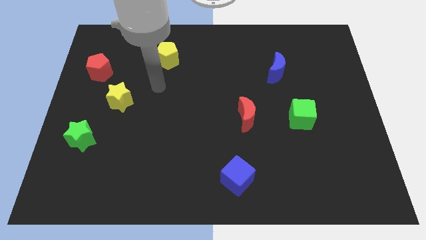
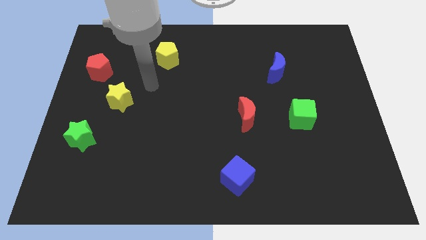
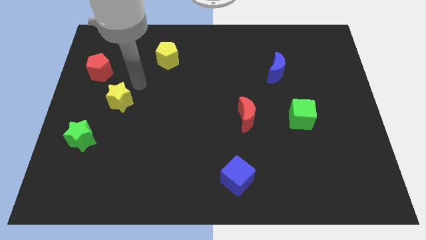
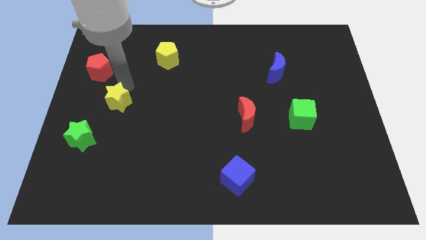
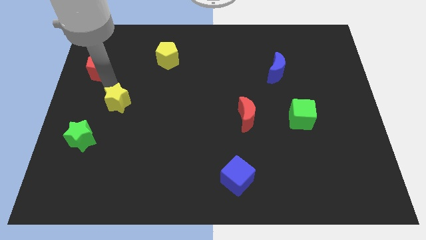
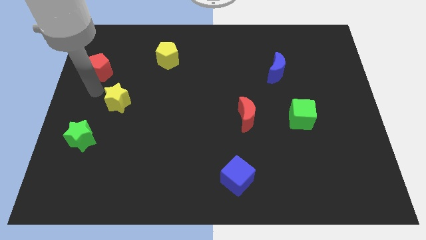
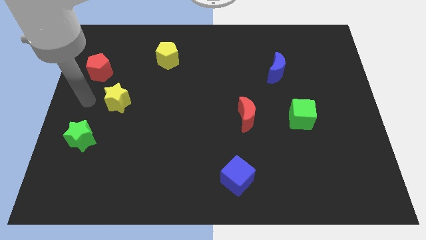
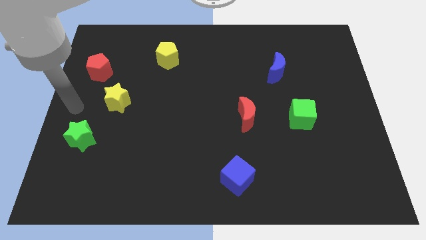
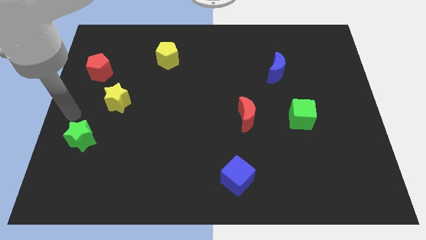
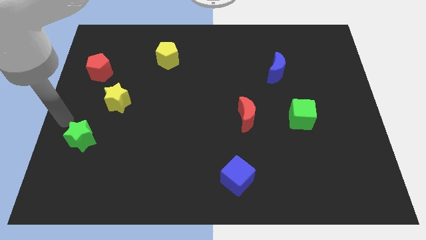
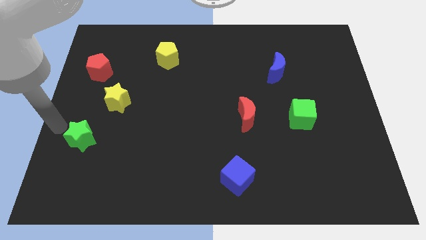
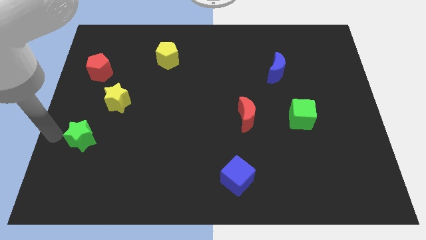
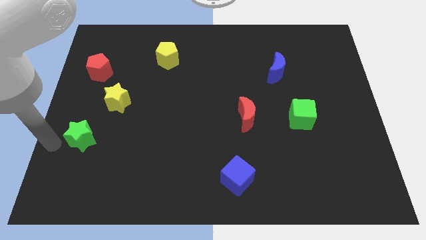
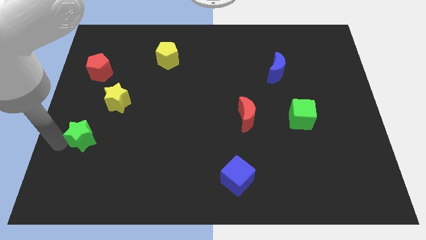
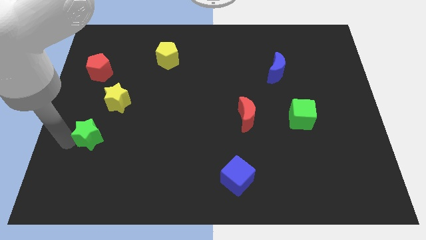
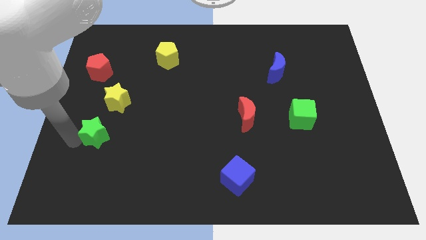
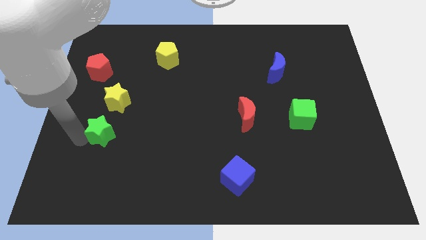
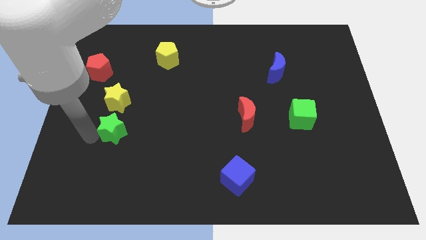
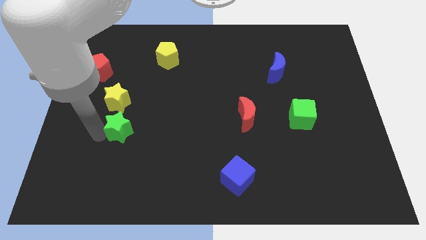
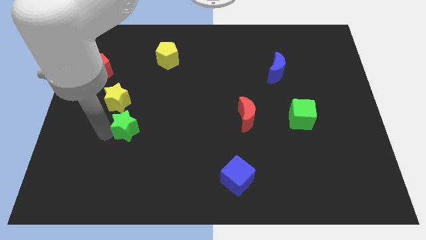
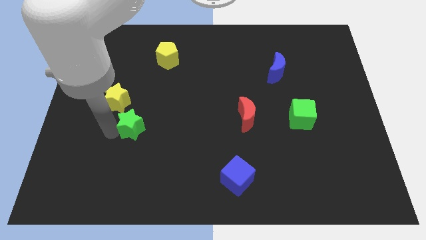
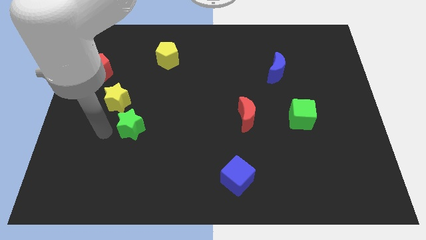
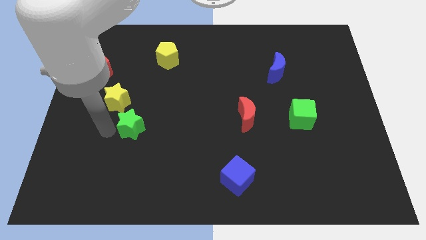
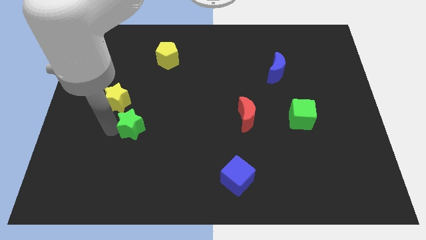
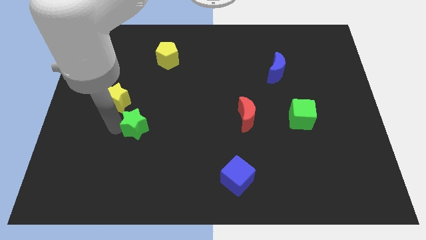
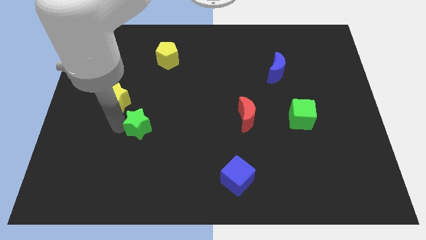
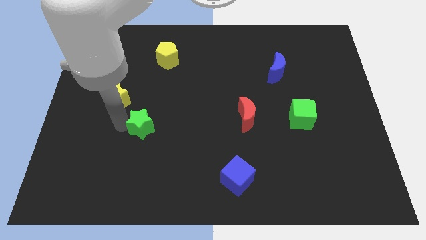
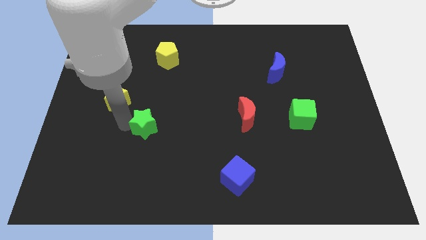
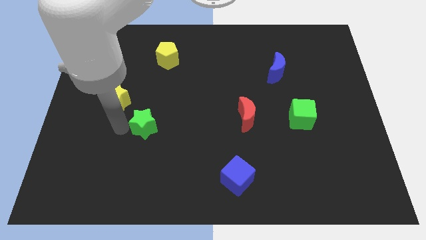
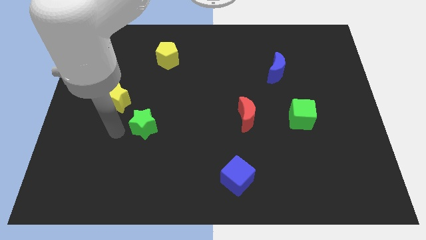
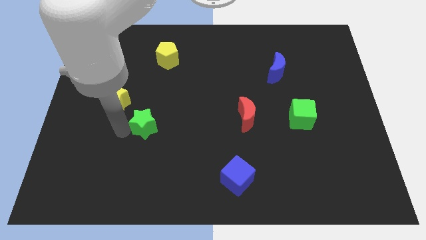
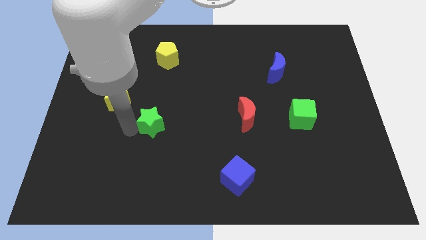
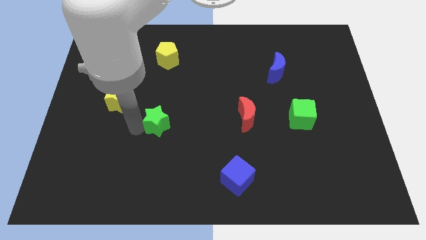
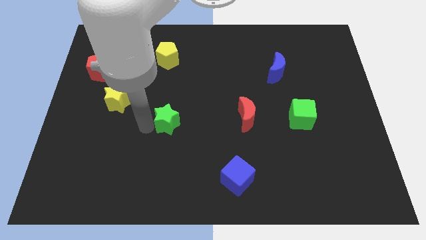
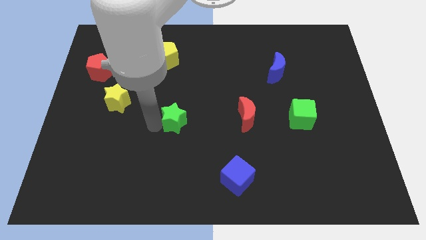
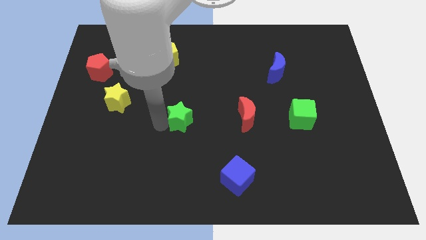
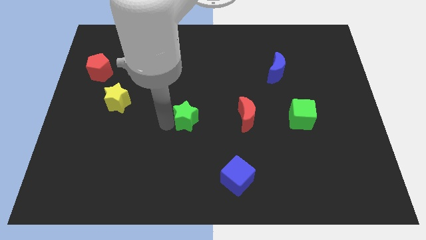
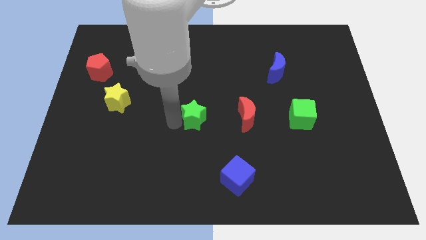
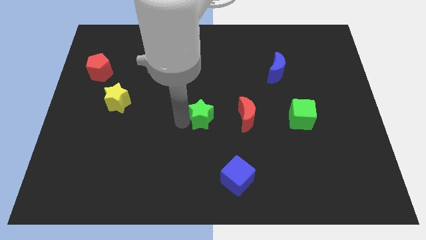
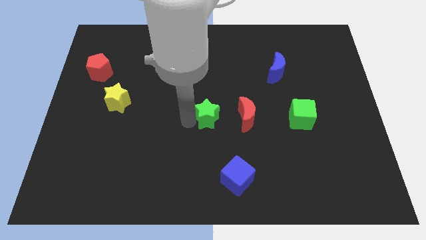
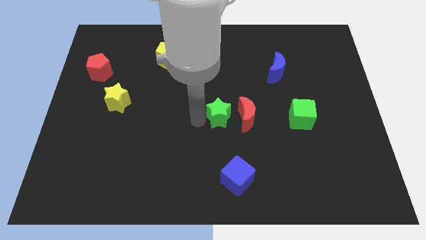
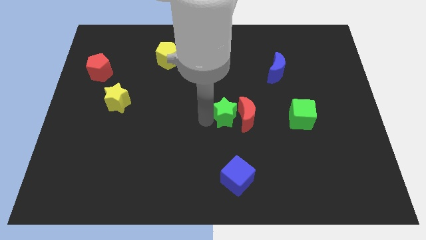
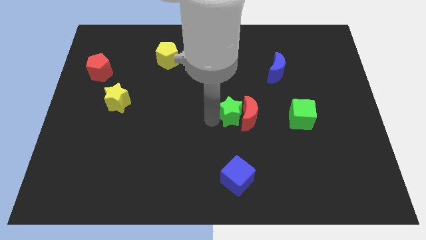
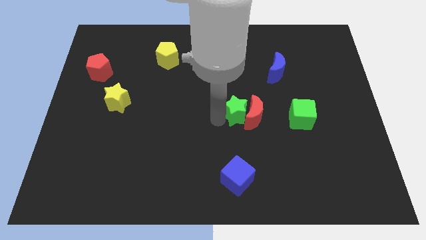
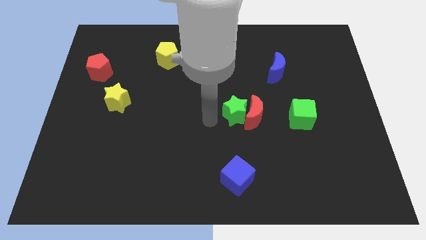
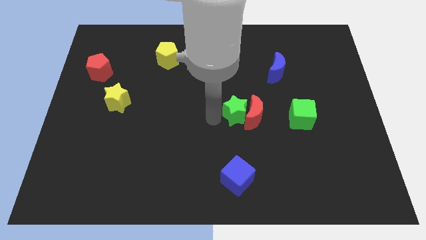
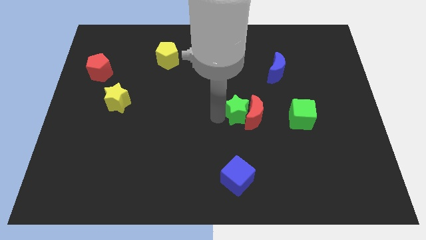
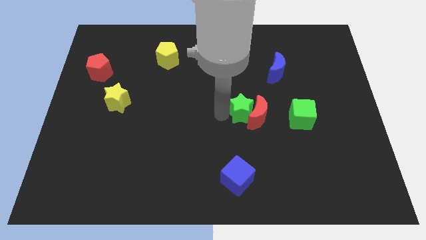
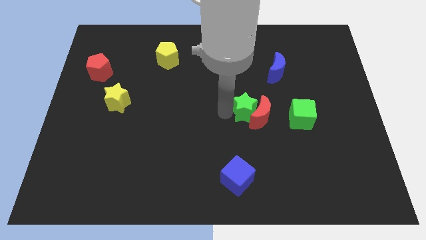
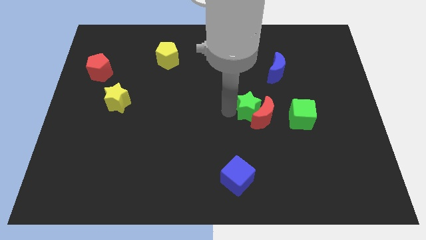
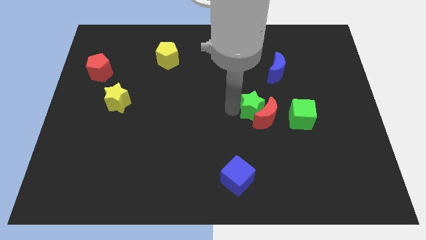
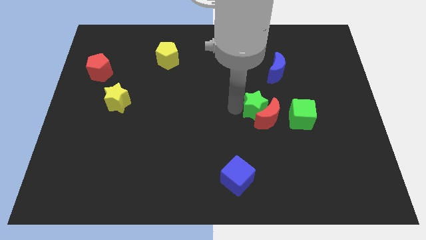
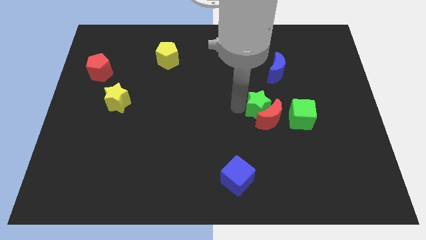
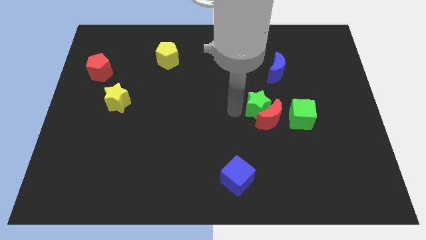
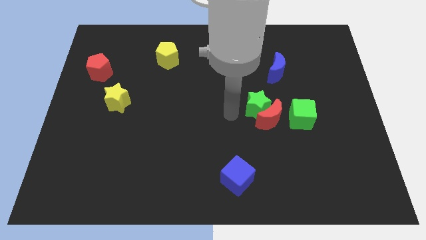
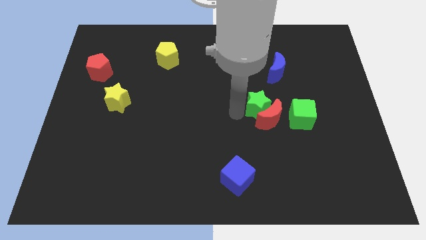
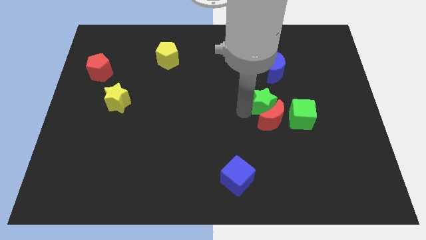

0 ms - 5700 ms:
put the green star to the bottom of the blue moon

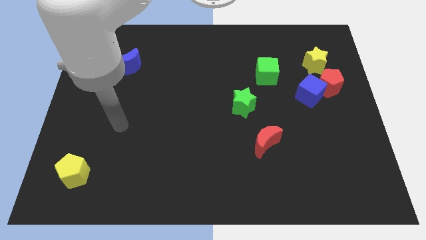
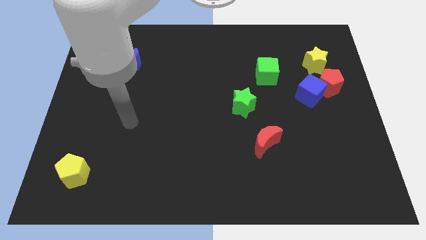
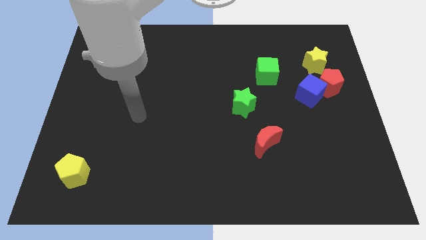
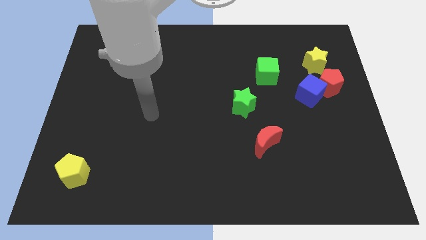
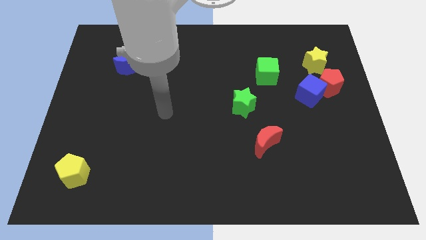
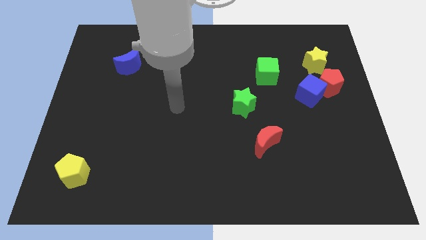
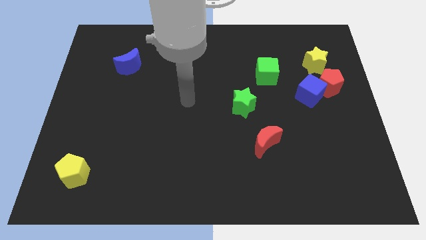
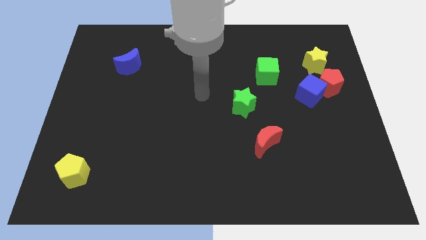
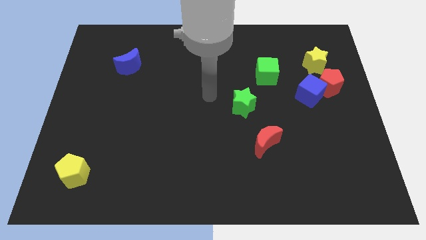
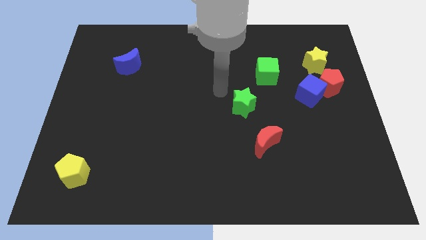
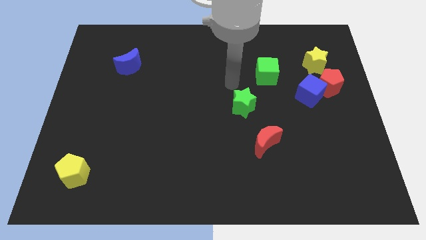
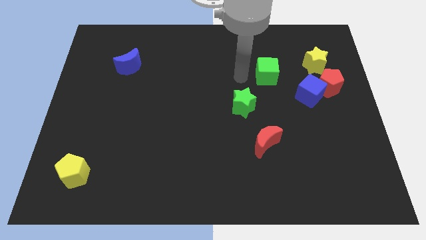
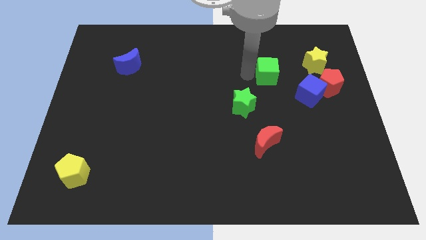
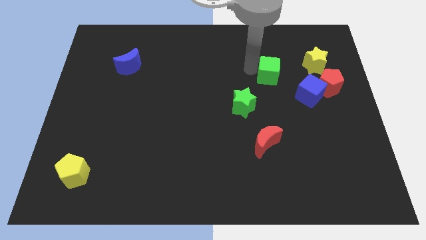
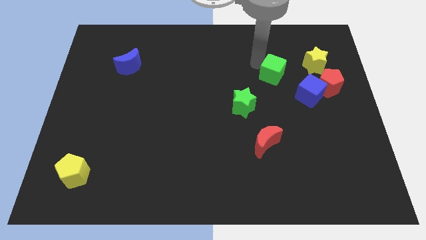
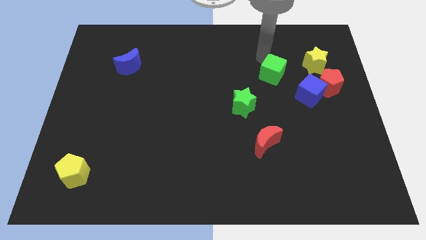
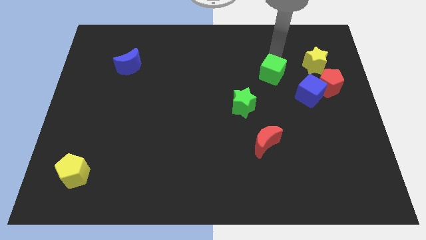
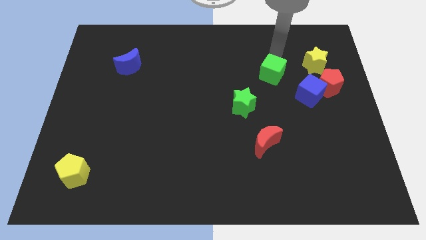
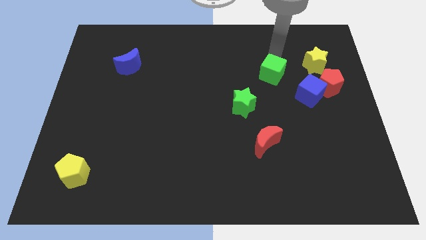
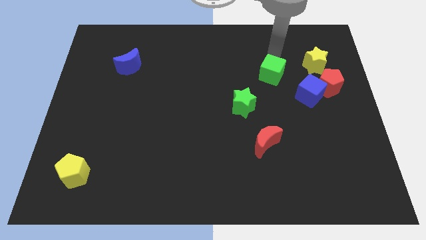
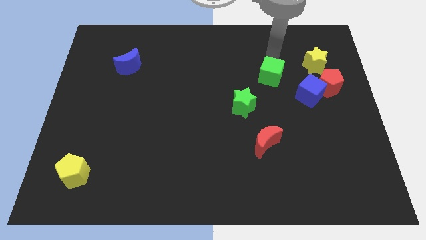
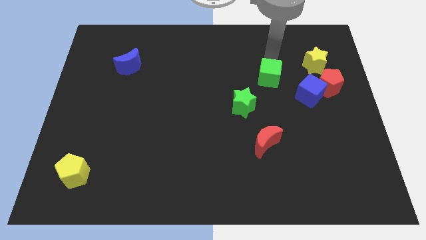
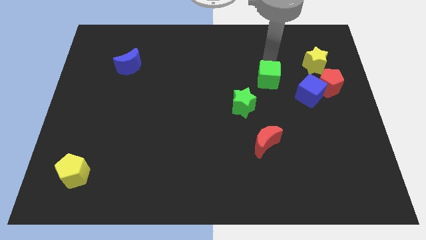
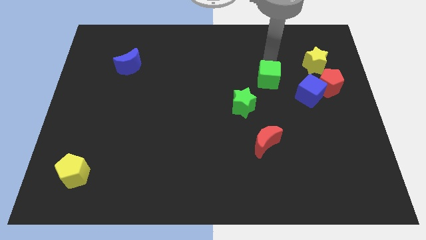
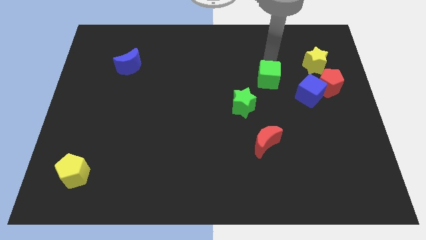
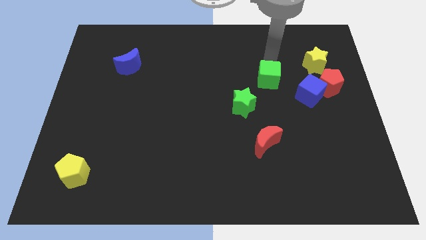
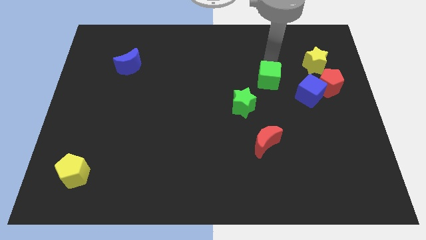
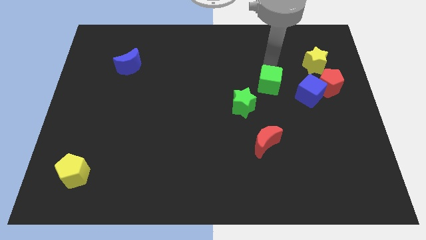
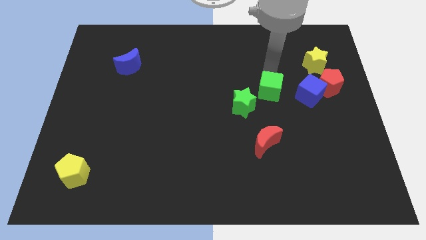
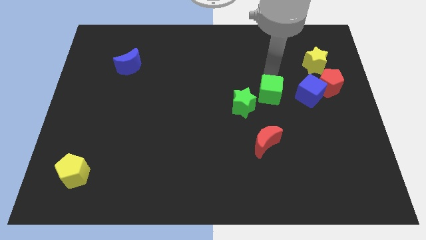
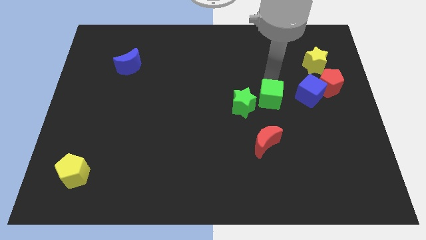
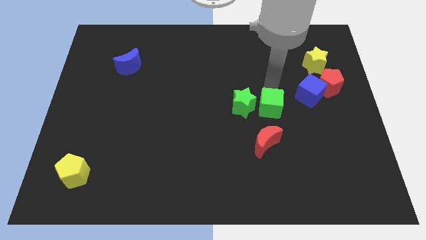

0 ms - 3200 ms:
put the green cube diagonally down and to the right of the green star
